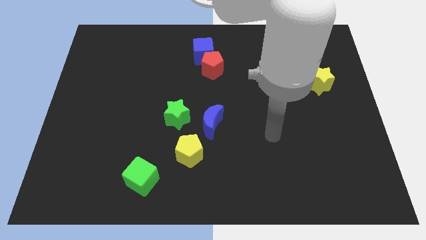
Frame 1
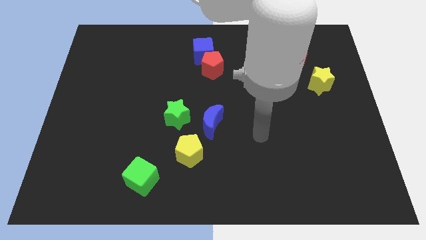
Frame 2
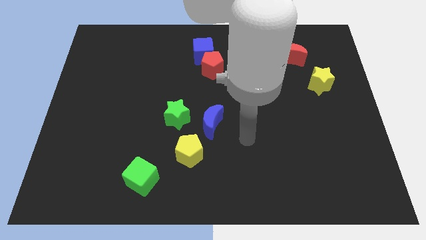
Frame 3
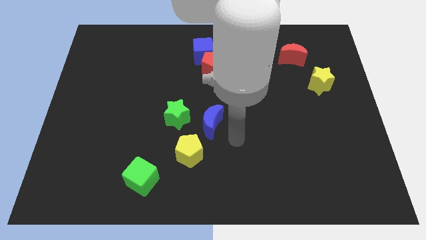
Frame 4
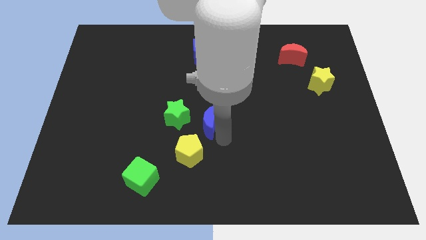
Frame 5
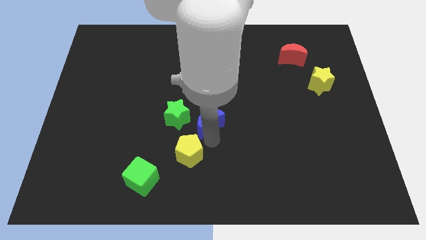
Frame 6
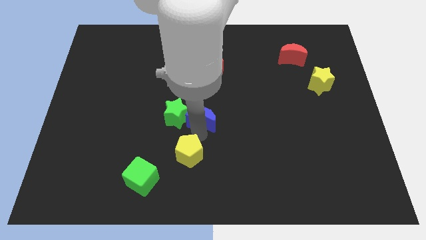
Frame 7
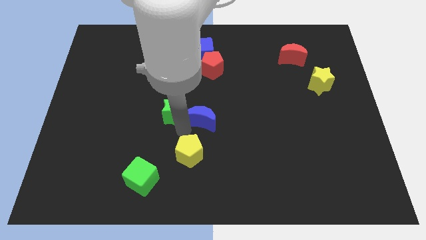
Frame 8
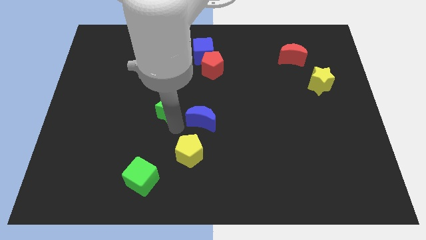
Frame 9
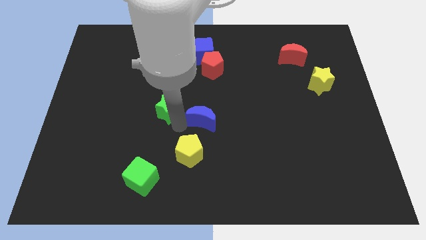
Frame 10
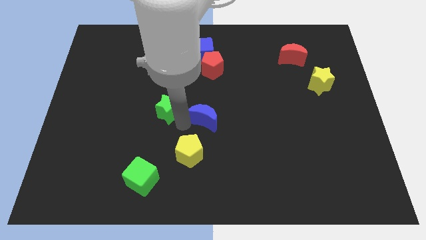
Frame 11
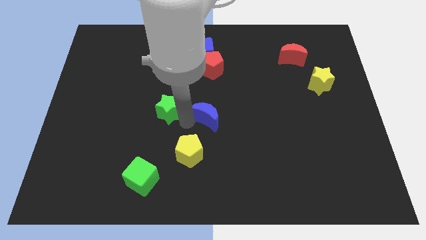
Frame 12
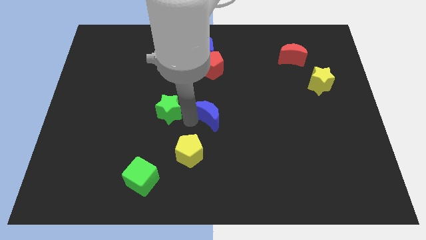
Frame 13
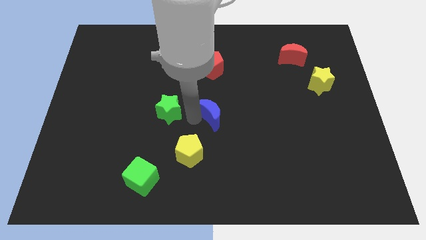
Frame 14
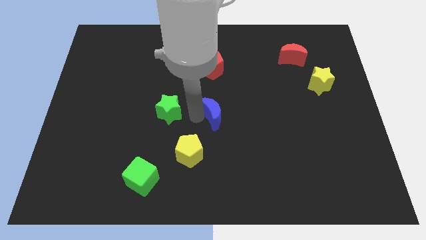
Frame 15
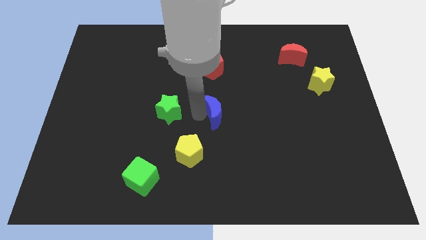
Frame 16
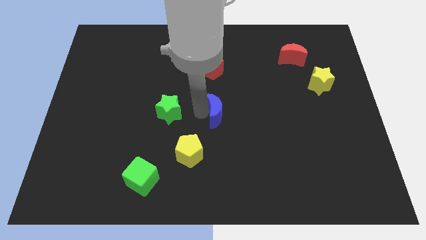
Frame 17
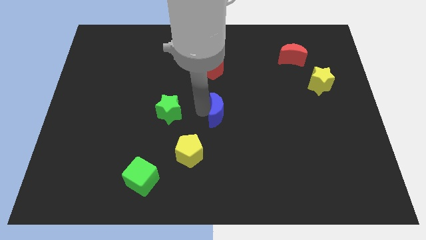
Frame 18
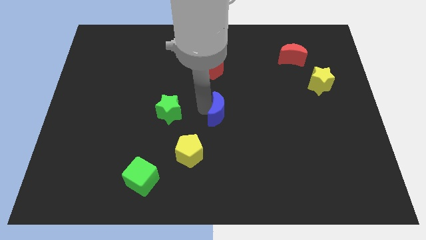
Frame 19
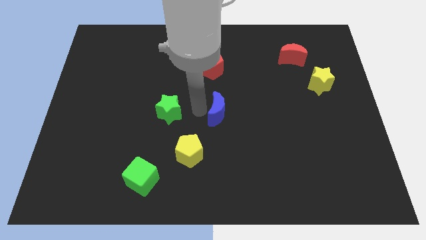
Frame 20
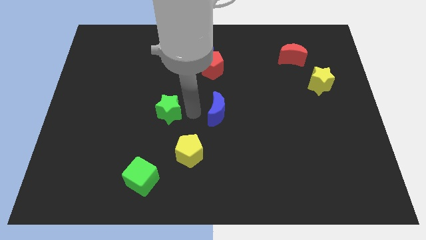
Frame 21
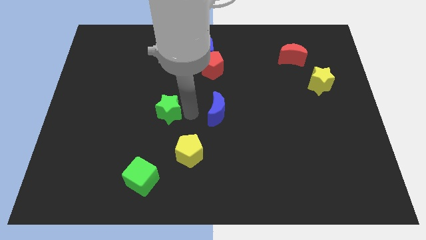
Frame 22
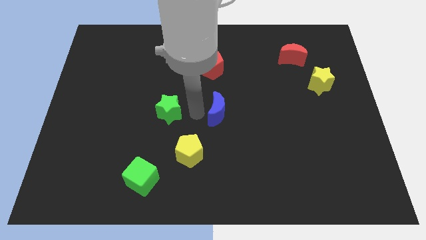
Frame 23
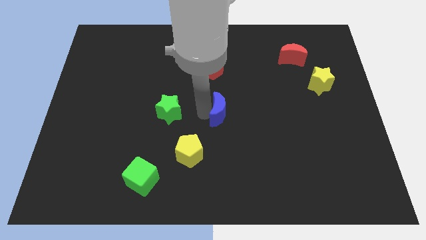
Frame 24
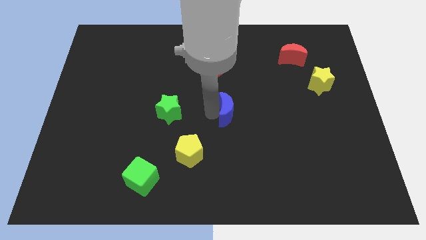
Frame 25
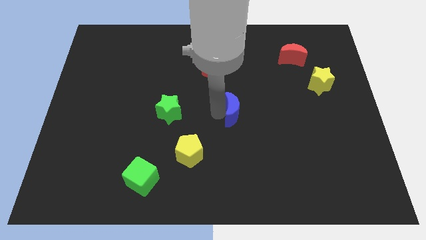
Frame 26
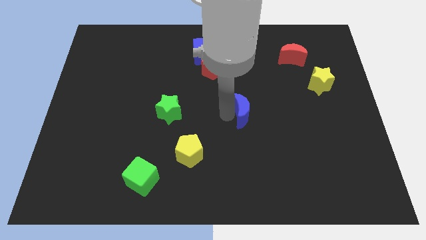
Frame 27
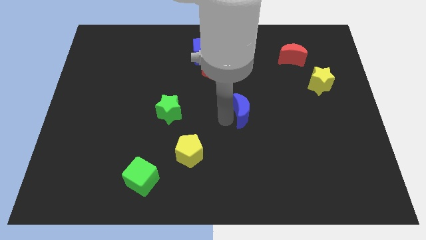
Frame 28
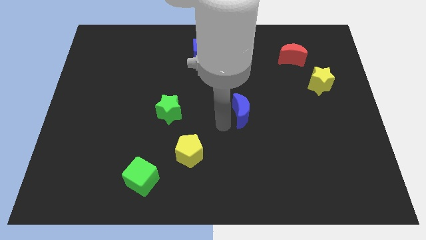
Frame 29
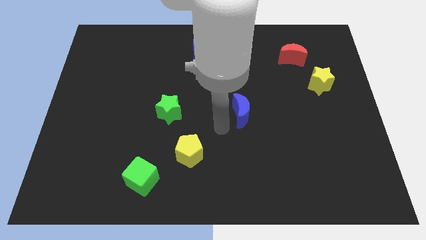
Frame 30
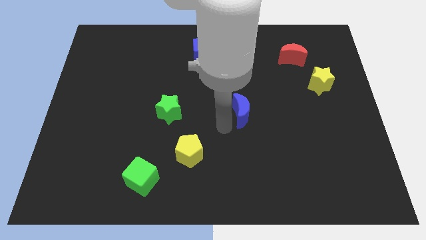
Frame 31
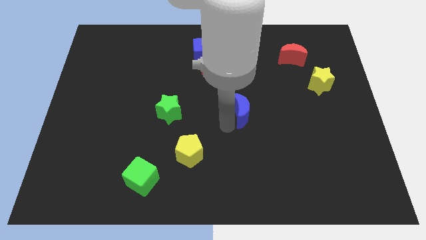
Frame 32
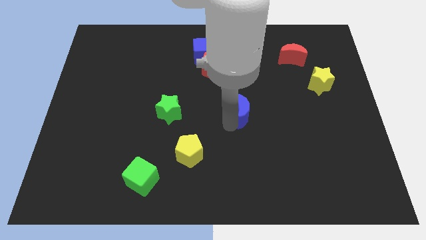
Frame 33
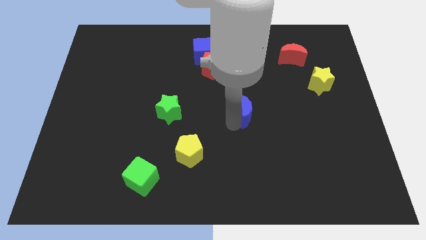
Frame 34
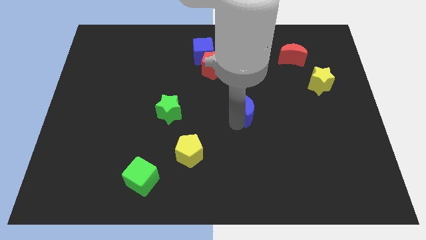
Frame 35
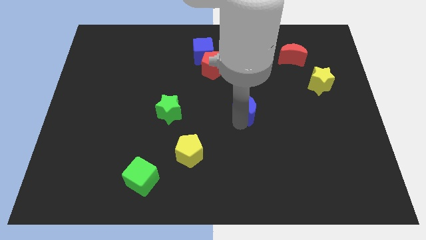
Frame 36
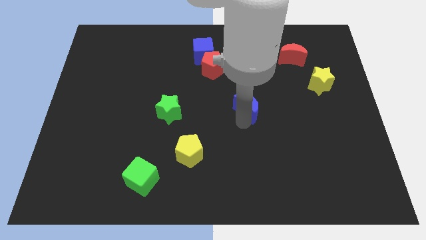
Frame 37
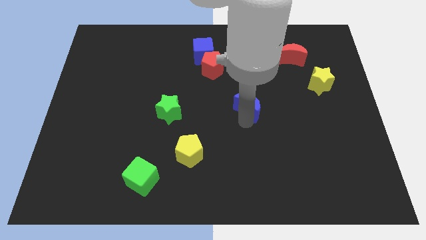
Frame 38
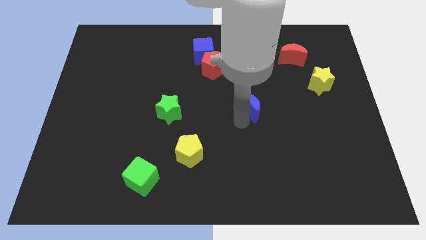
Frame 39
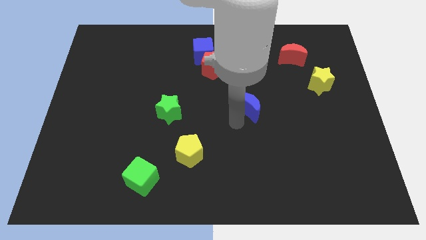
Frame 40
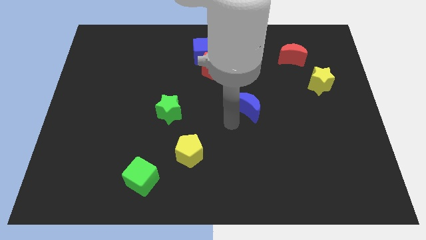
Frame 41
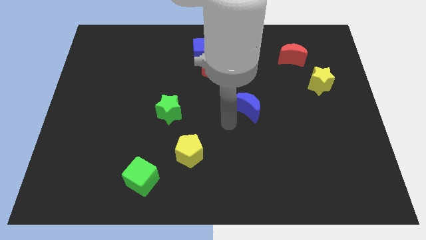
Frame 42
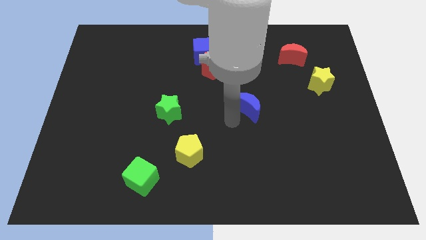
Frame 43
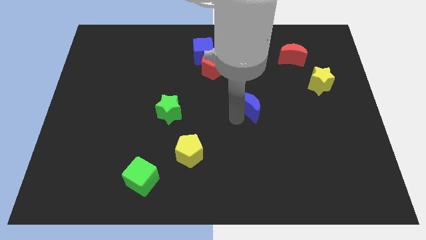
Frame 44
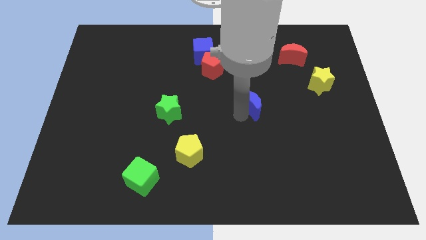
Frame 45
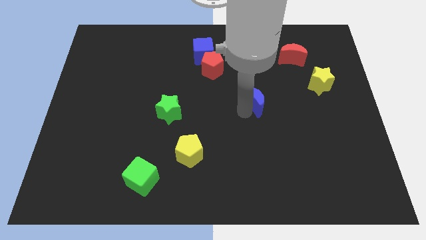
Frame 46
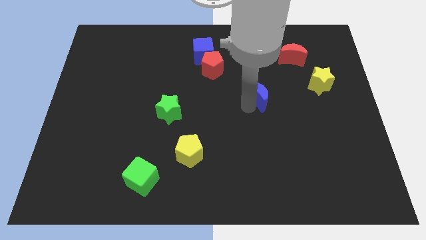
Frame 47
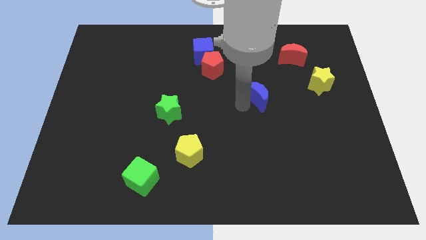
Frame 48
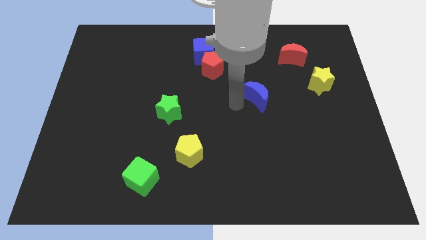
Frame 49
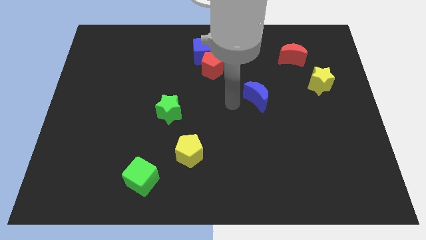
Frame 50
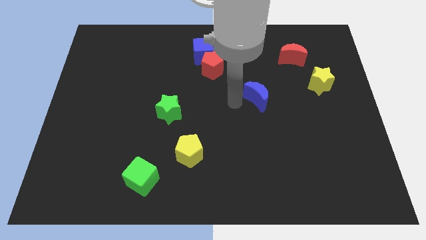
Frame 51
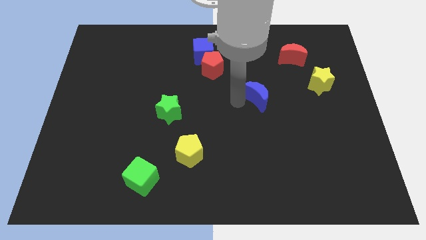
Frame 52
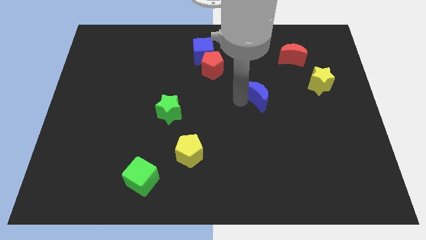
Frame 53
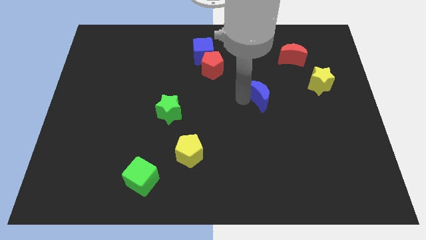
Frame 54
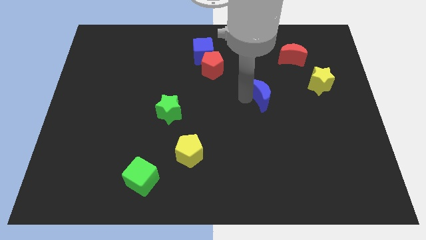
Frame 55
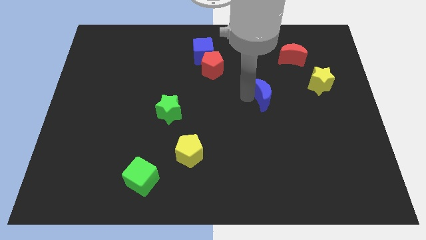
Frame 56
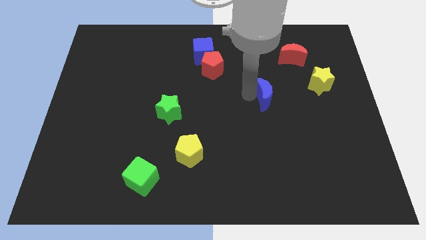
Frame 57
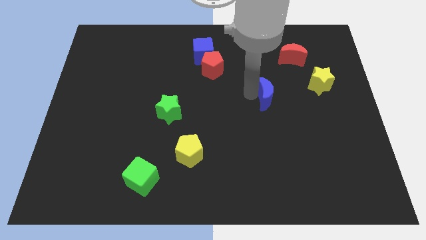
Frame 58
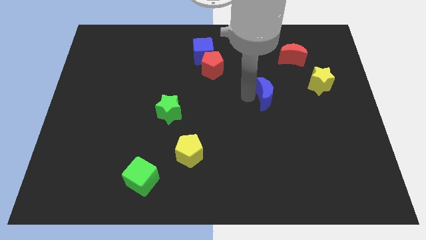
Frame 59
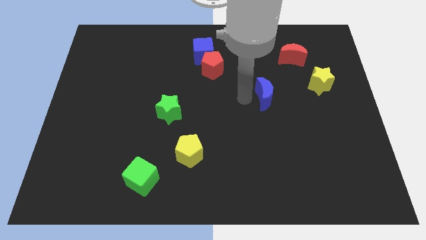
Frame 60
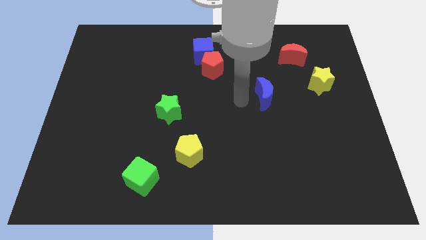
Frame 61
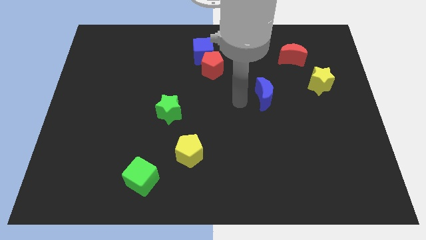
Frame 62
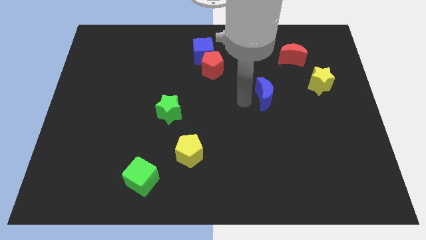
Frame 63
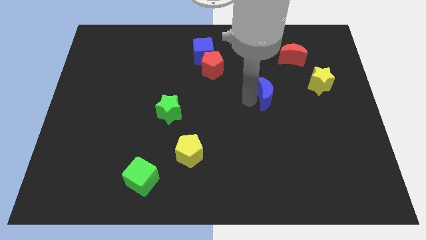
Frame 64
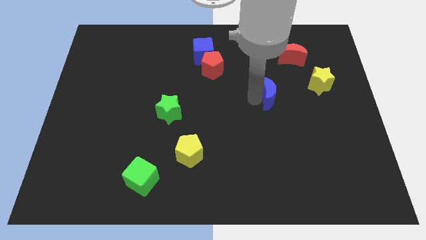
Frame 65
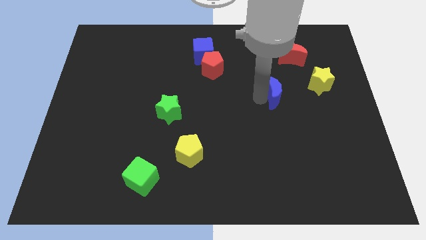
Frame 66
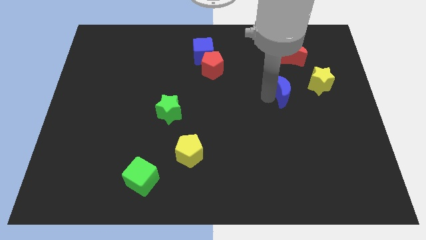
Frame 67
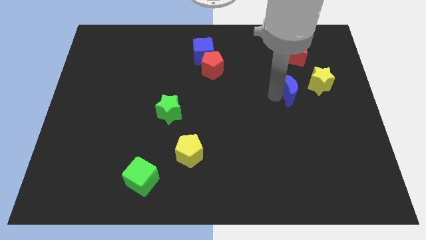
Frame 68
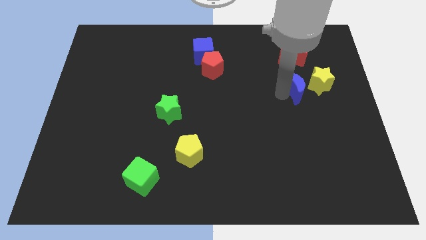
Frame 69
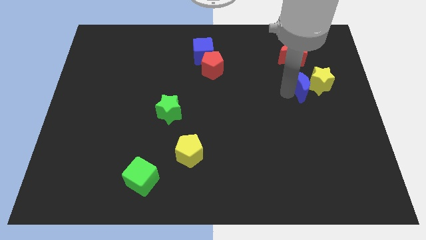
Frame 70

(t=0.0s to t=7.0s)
put the blue moon towards the yellow star

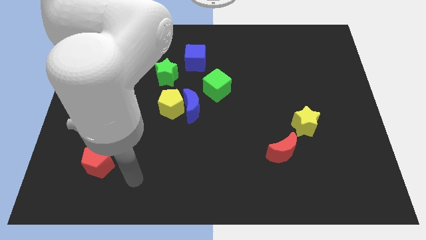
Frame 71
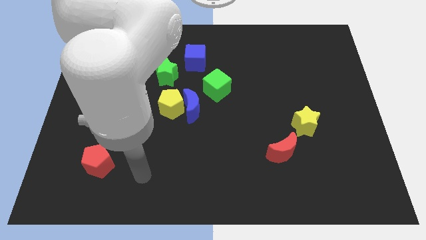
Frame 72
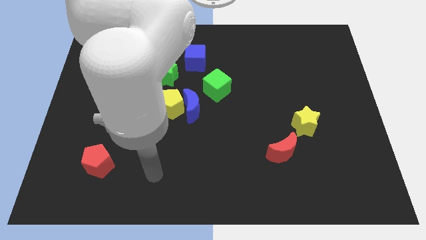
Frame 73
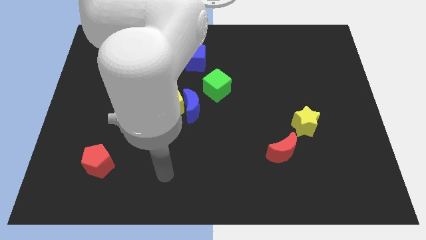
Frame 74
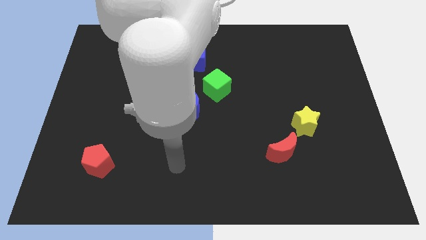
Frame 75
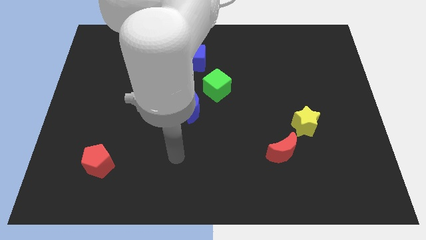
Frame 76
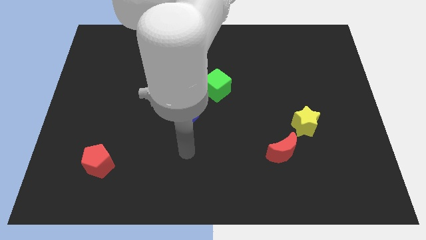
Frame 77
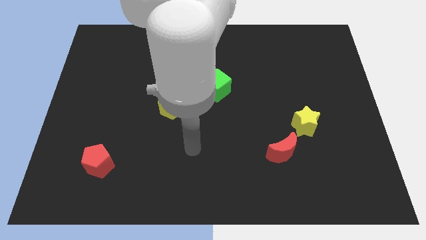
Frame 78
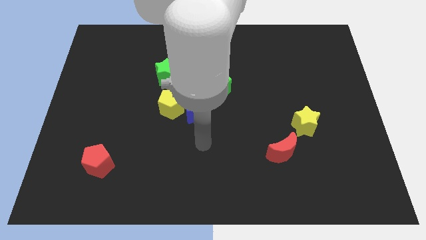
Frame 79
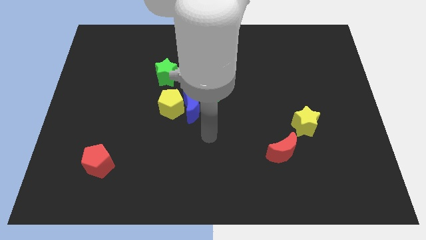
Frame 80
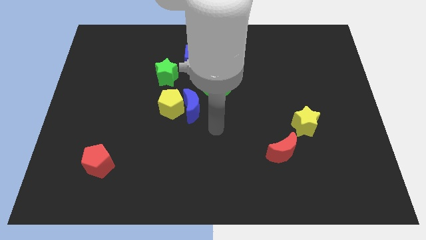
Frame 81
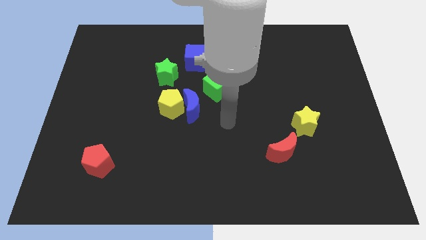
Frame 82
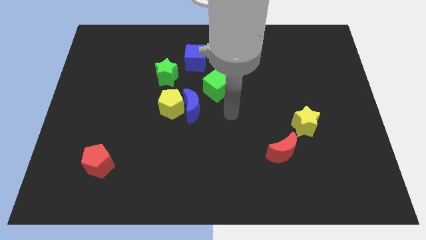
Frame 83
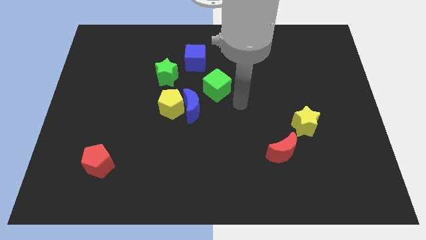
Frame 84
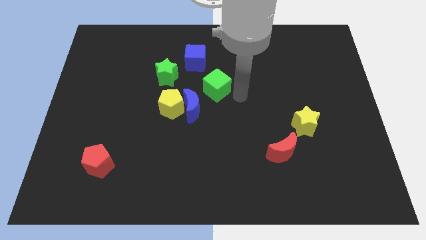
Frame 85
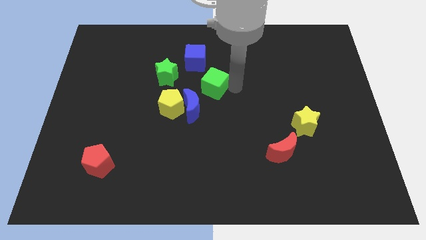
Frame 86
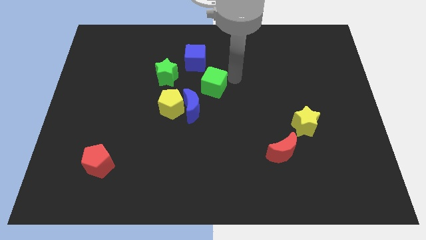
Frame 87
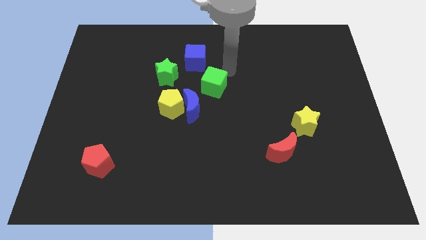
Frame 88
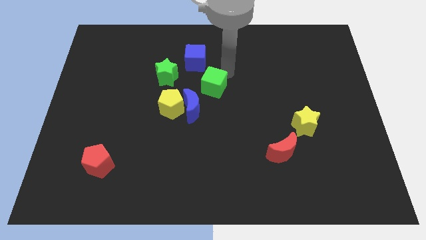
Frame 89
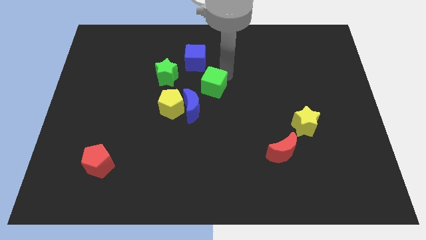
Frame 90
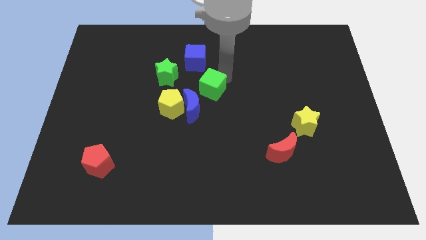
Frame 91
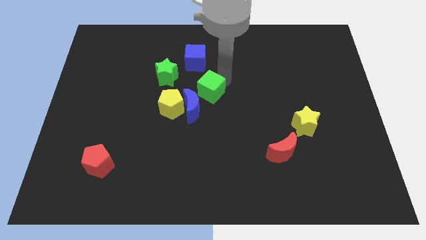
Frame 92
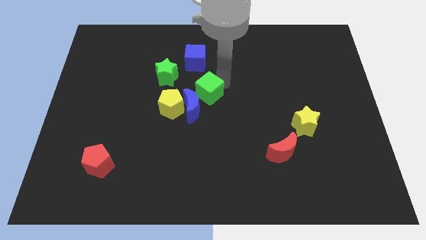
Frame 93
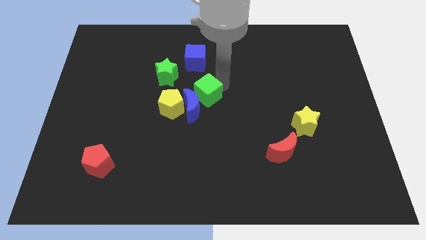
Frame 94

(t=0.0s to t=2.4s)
slide the green cube to the blue moon
